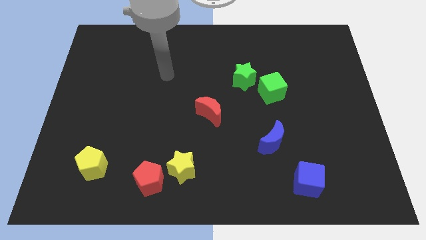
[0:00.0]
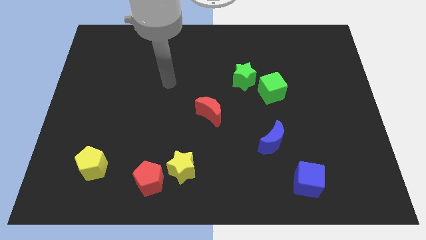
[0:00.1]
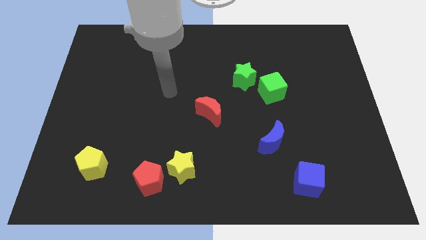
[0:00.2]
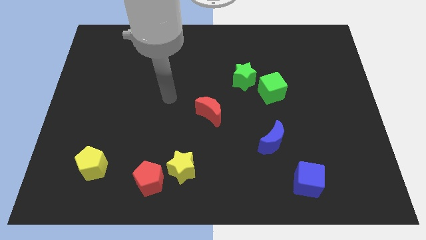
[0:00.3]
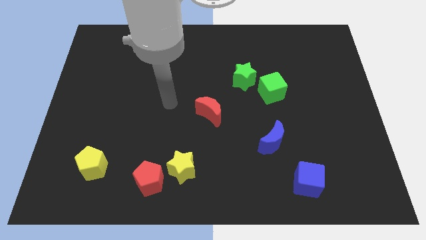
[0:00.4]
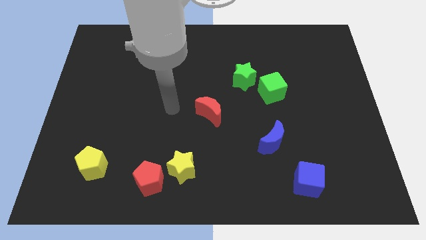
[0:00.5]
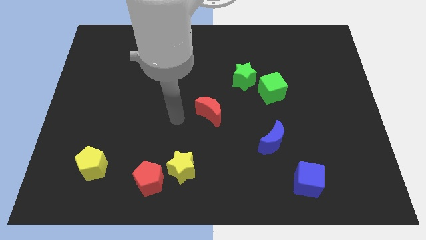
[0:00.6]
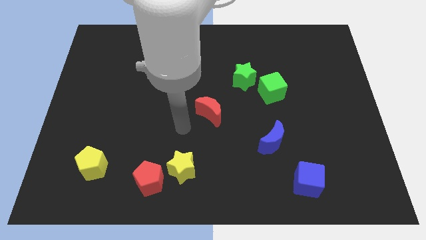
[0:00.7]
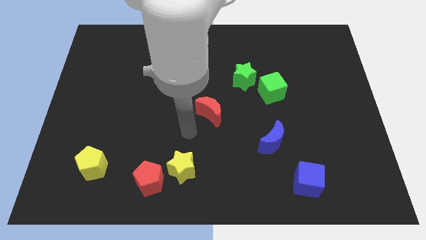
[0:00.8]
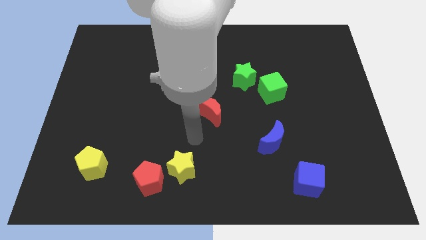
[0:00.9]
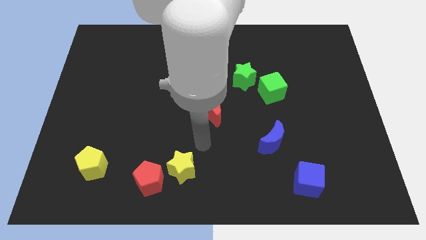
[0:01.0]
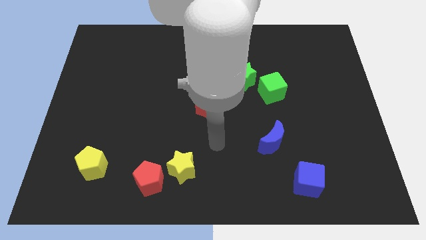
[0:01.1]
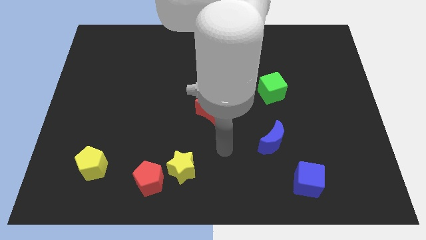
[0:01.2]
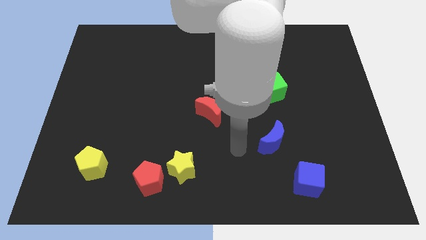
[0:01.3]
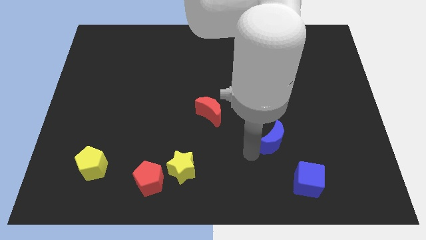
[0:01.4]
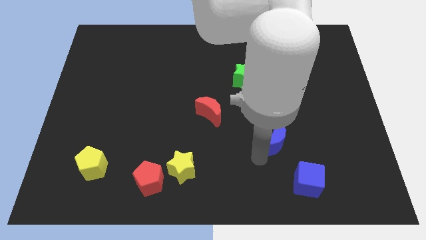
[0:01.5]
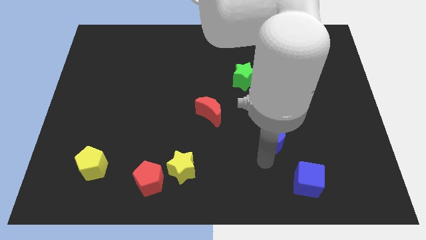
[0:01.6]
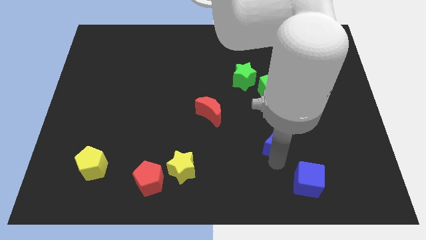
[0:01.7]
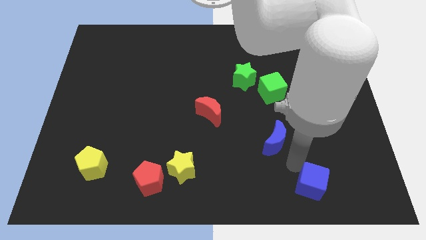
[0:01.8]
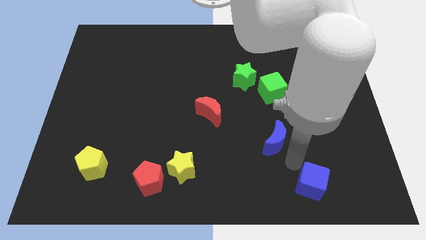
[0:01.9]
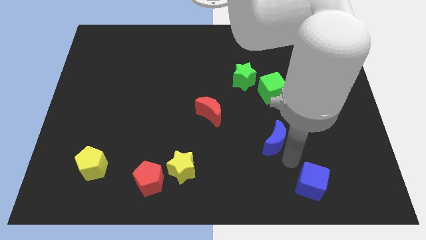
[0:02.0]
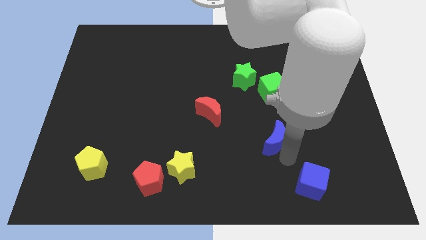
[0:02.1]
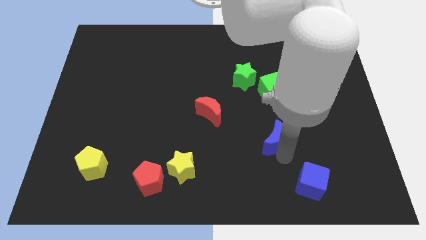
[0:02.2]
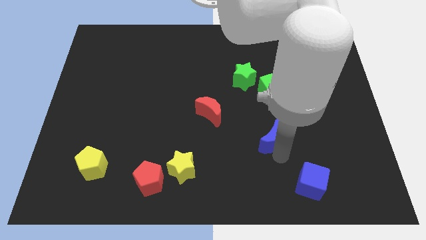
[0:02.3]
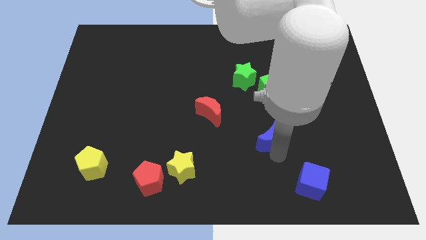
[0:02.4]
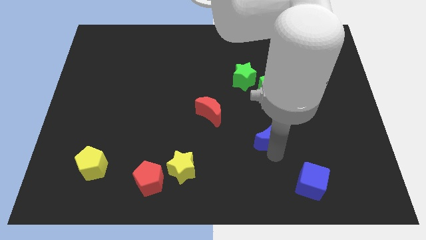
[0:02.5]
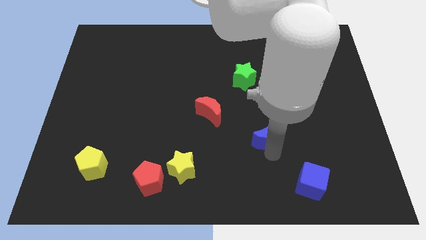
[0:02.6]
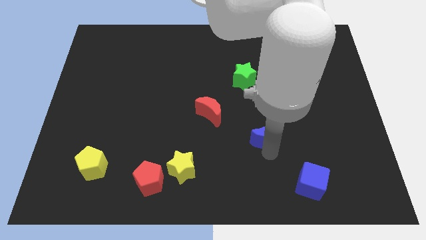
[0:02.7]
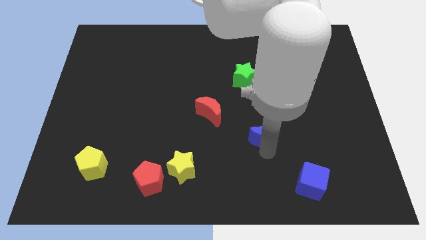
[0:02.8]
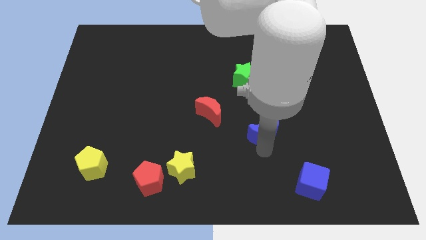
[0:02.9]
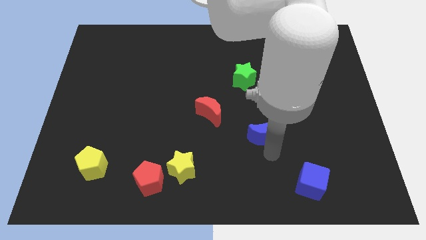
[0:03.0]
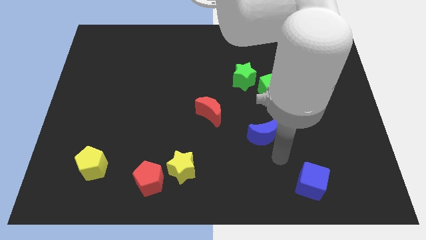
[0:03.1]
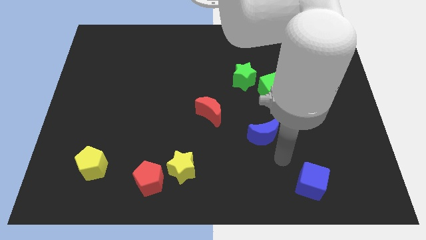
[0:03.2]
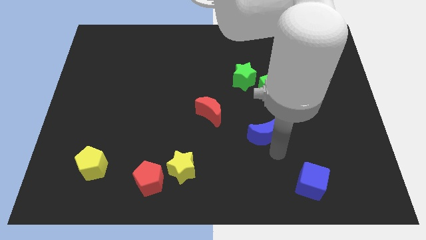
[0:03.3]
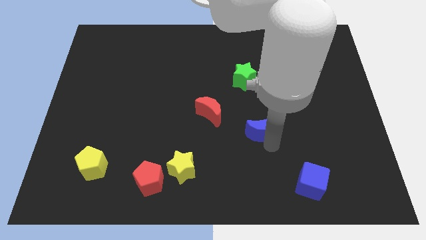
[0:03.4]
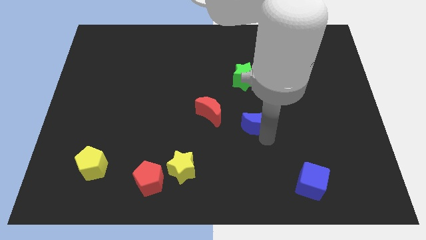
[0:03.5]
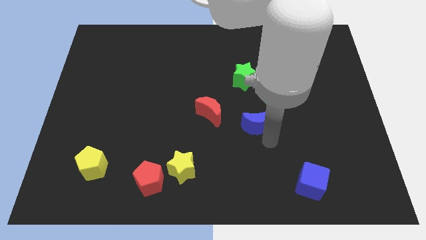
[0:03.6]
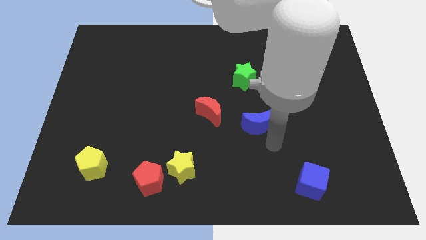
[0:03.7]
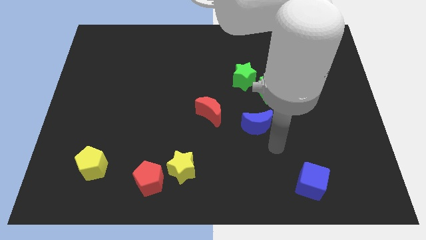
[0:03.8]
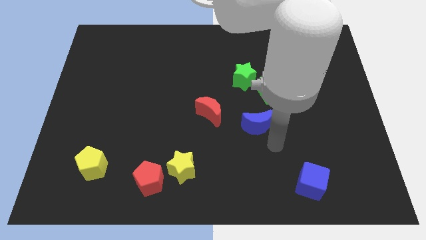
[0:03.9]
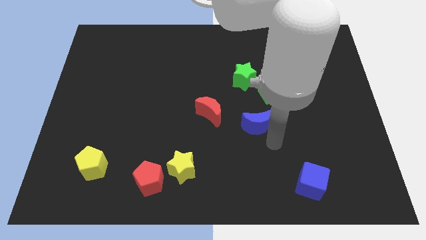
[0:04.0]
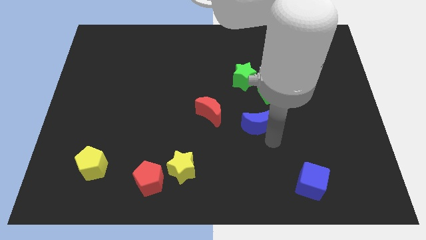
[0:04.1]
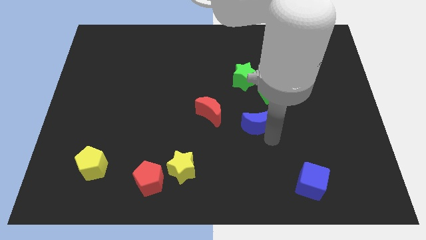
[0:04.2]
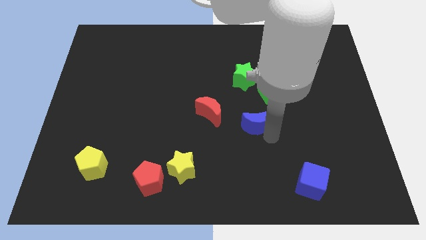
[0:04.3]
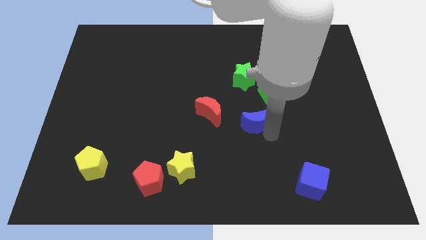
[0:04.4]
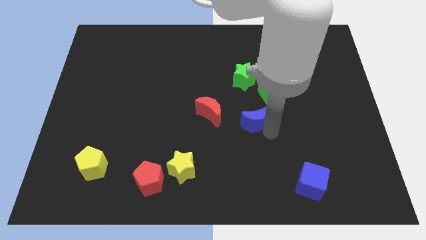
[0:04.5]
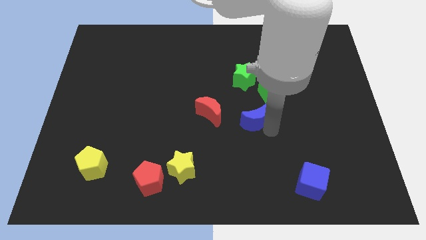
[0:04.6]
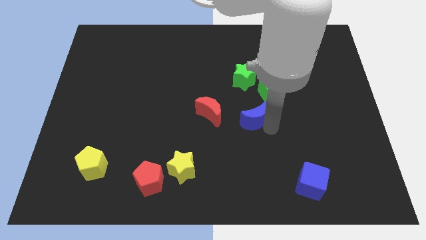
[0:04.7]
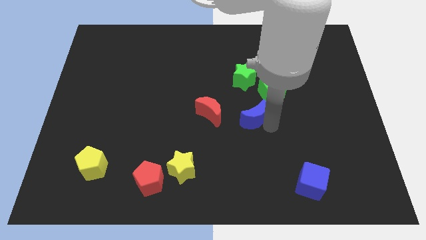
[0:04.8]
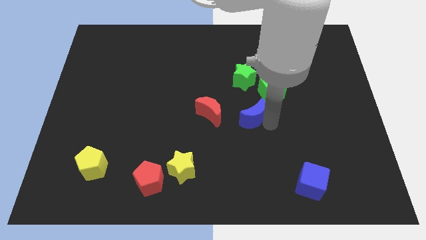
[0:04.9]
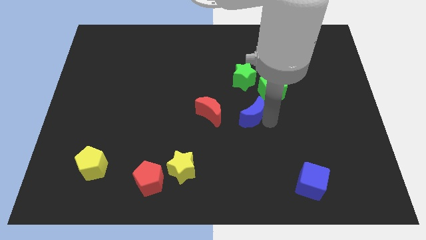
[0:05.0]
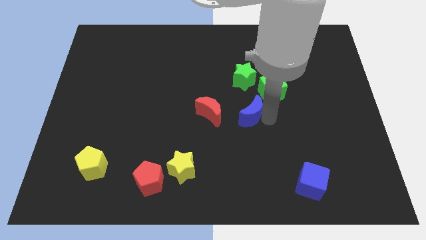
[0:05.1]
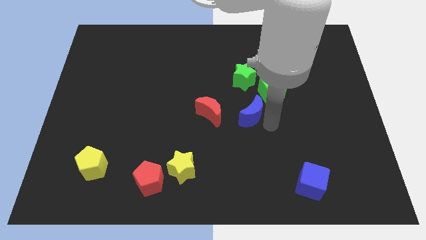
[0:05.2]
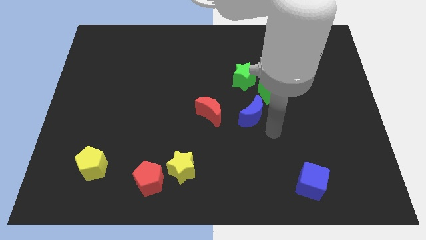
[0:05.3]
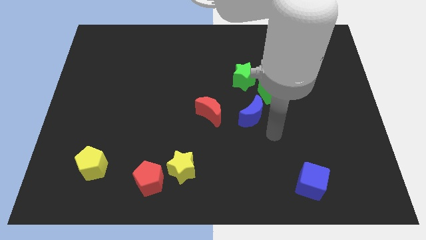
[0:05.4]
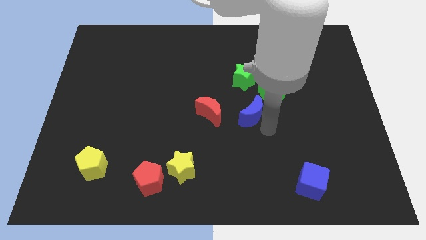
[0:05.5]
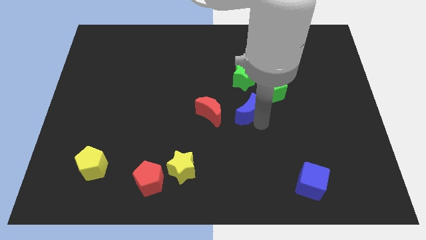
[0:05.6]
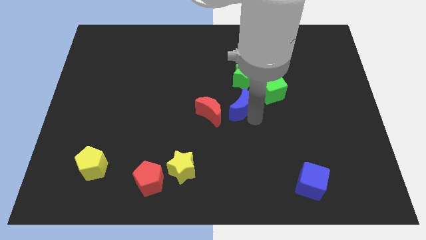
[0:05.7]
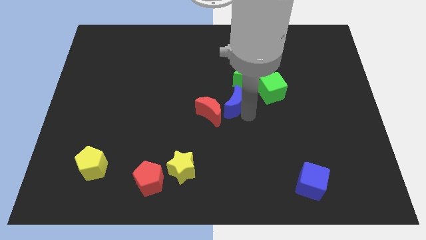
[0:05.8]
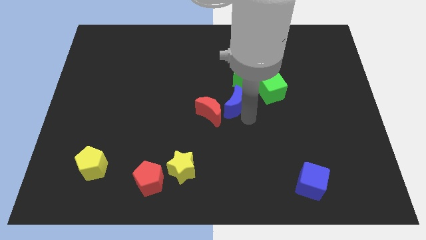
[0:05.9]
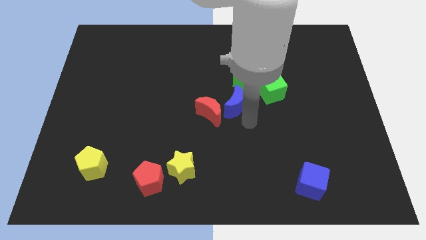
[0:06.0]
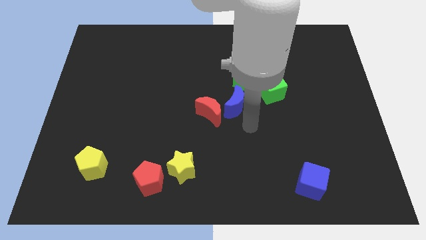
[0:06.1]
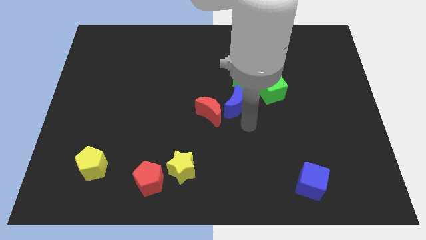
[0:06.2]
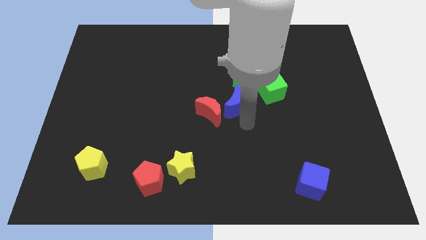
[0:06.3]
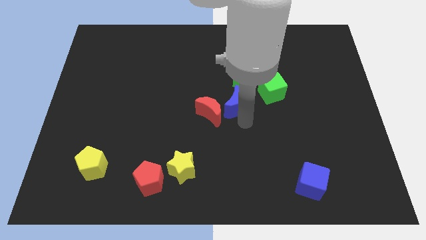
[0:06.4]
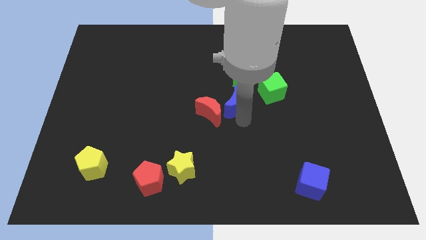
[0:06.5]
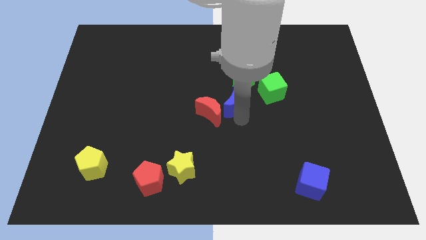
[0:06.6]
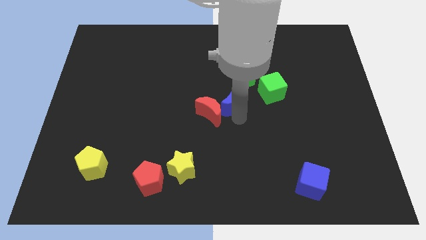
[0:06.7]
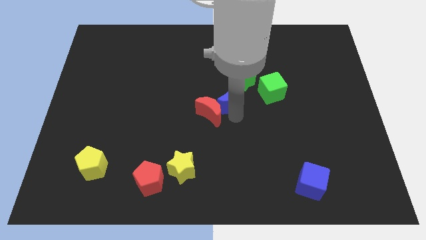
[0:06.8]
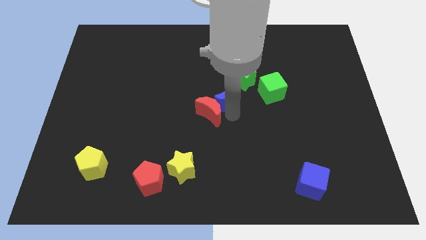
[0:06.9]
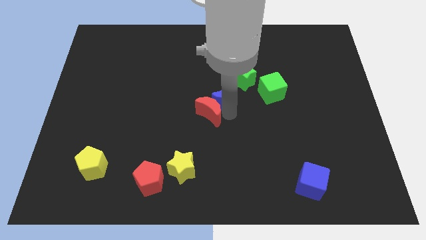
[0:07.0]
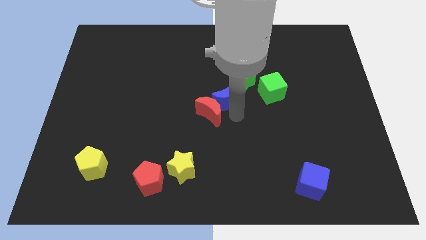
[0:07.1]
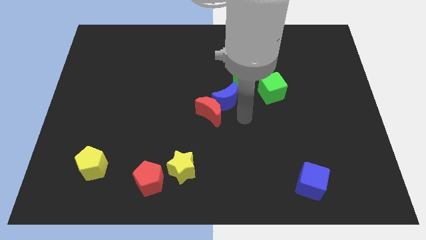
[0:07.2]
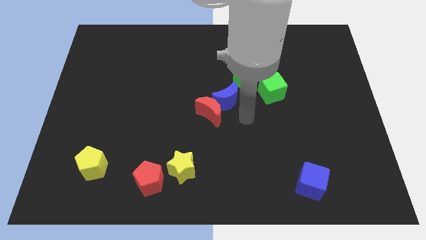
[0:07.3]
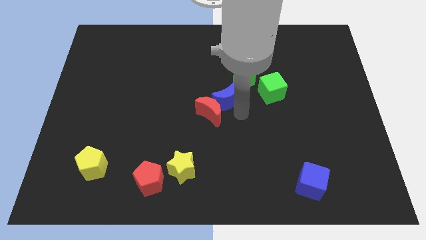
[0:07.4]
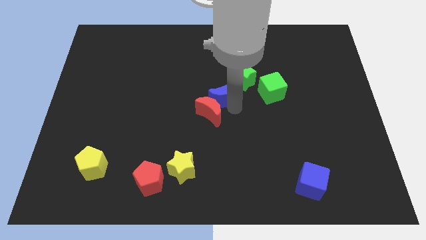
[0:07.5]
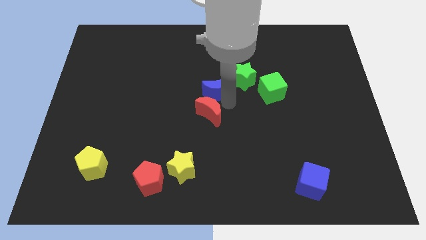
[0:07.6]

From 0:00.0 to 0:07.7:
push the blue moon to the left of the green star

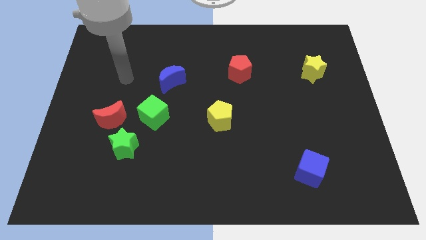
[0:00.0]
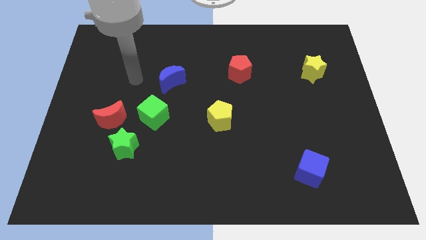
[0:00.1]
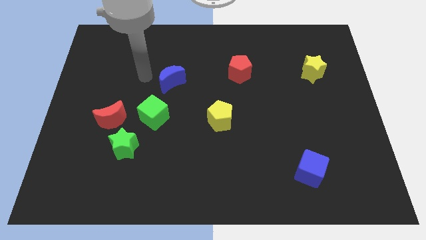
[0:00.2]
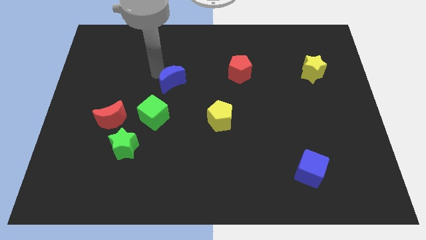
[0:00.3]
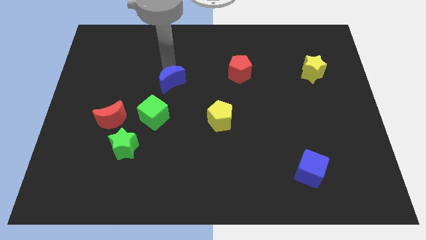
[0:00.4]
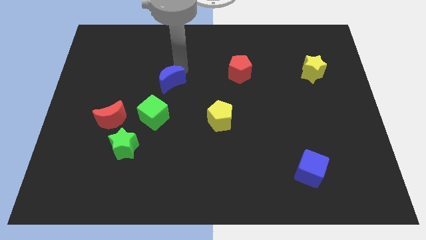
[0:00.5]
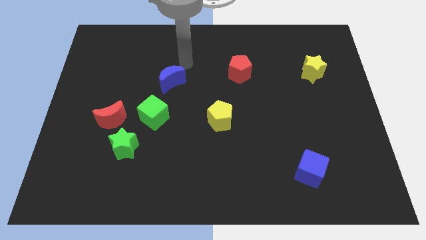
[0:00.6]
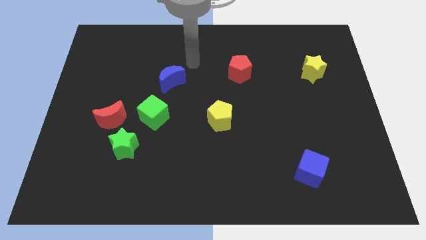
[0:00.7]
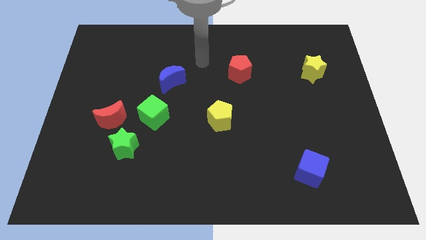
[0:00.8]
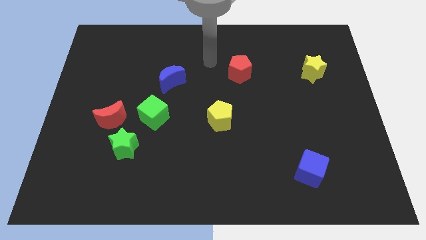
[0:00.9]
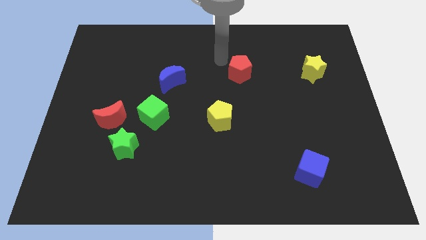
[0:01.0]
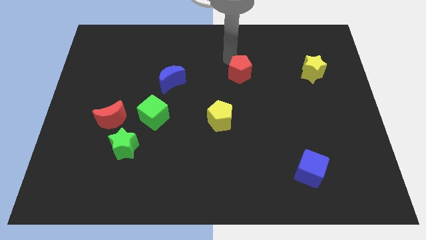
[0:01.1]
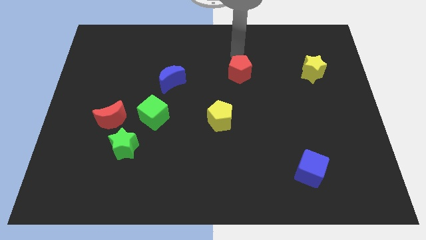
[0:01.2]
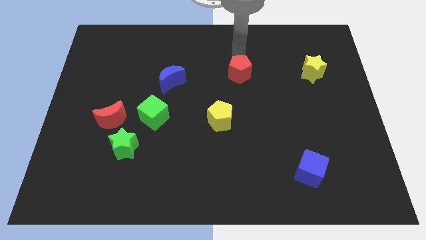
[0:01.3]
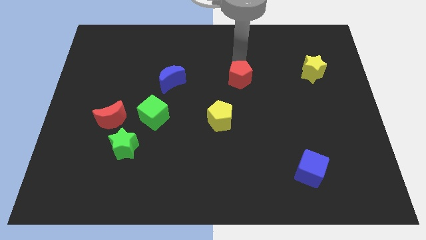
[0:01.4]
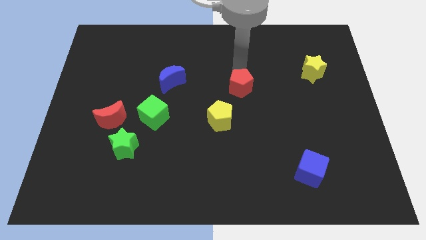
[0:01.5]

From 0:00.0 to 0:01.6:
put the red pentagon to the top right of the yellow pentagon
